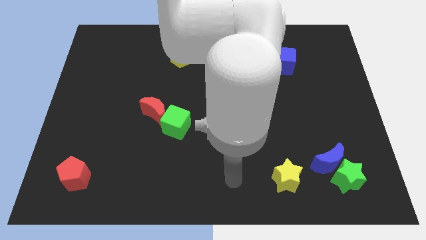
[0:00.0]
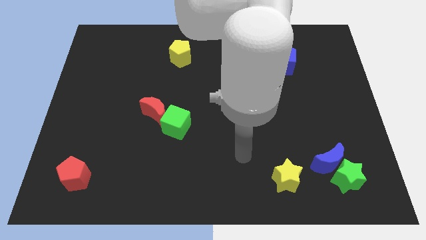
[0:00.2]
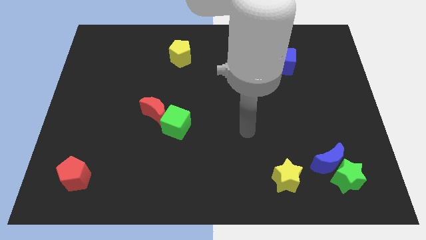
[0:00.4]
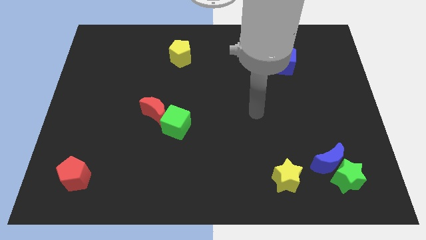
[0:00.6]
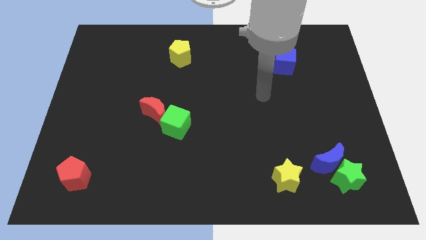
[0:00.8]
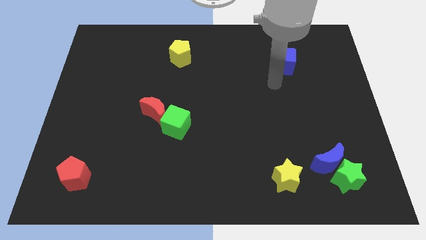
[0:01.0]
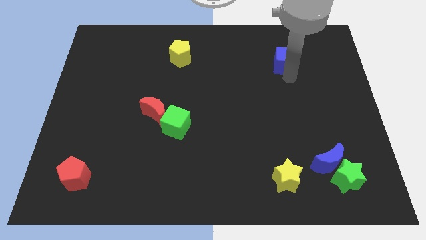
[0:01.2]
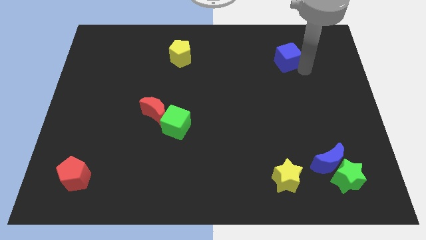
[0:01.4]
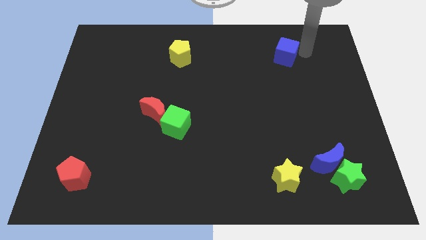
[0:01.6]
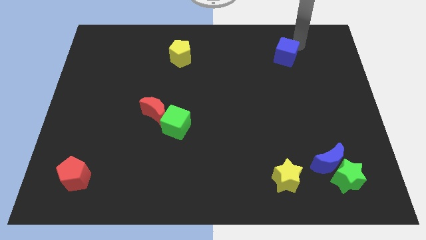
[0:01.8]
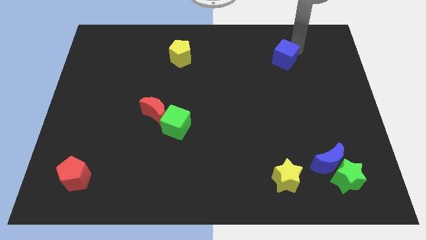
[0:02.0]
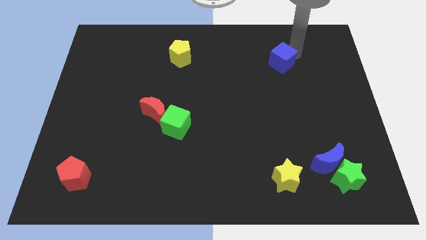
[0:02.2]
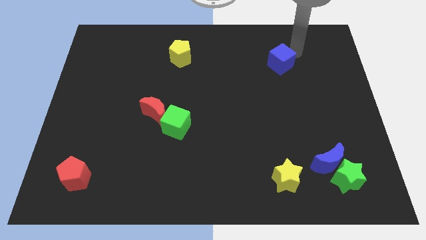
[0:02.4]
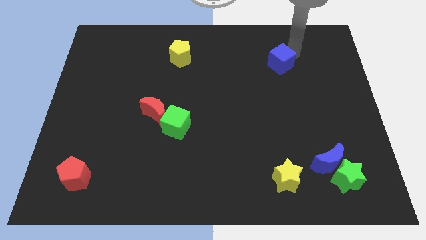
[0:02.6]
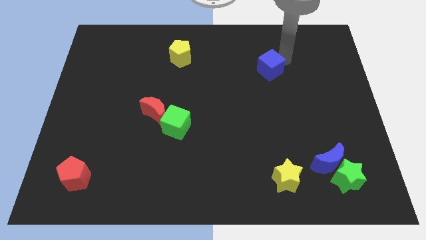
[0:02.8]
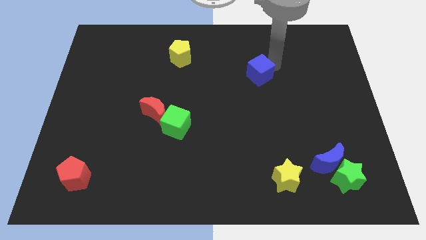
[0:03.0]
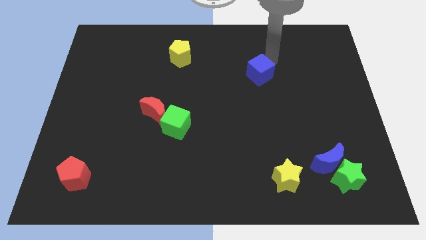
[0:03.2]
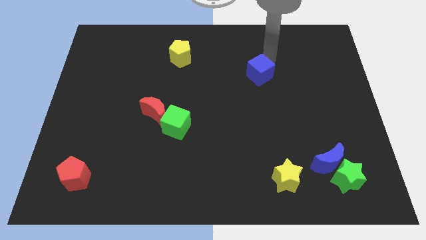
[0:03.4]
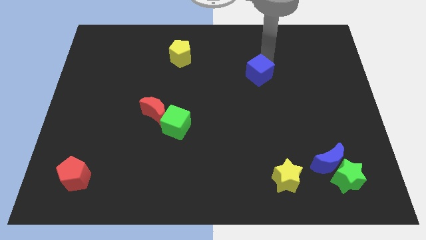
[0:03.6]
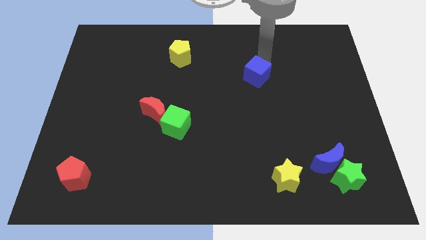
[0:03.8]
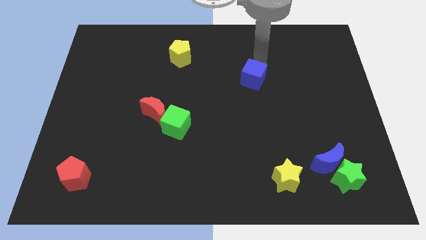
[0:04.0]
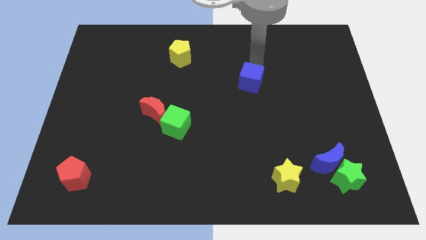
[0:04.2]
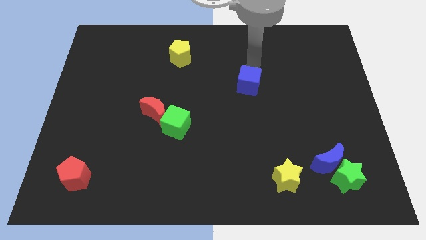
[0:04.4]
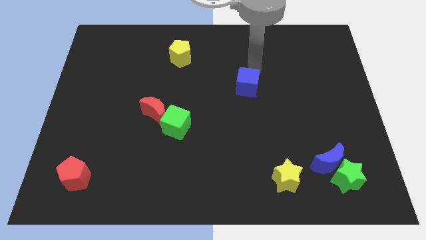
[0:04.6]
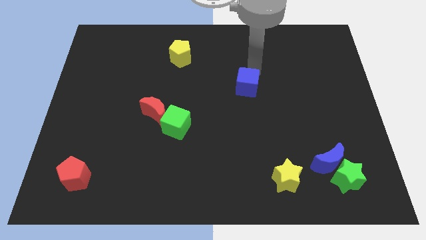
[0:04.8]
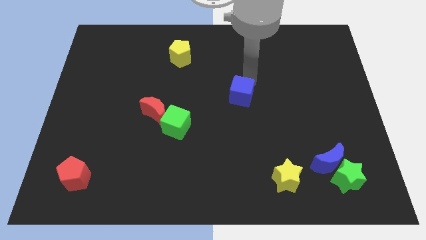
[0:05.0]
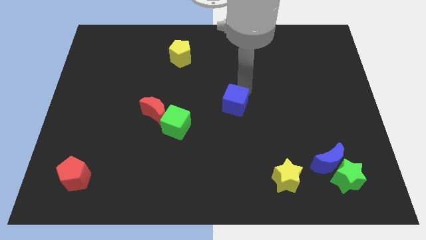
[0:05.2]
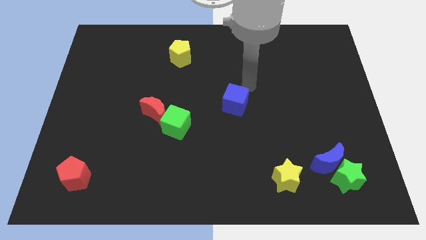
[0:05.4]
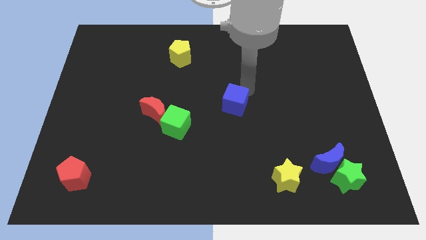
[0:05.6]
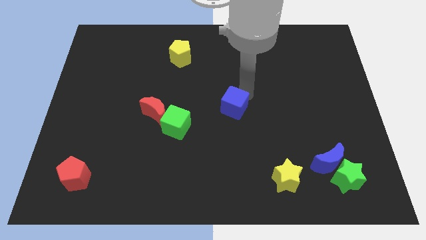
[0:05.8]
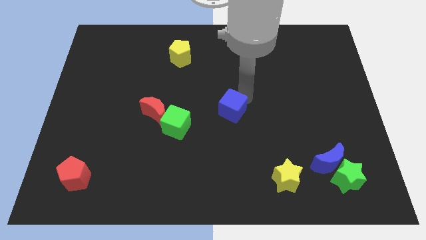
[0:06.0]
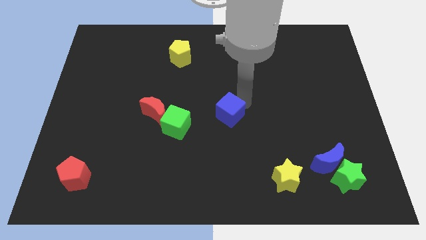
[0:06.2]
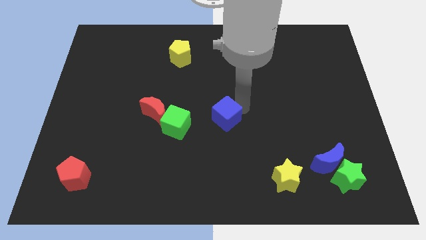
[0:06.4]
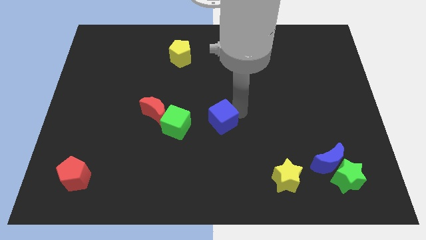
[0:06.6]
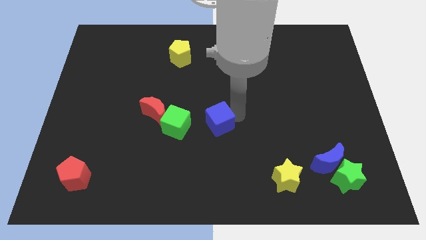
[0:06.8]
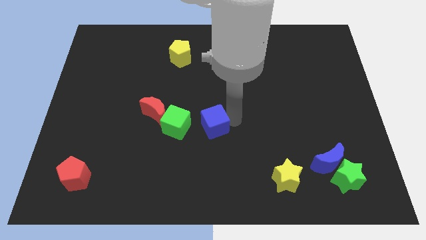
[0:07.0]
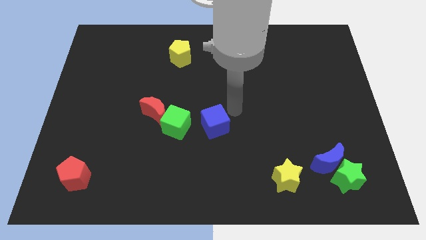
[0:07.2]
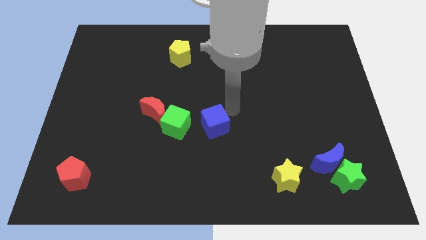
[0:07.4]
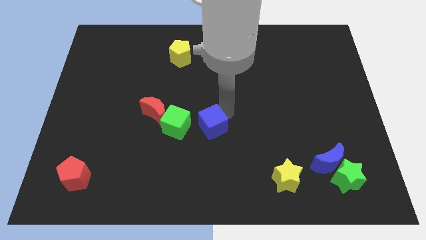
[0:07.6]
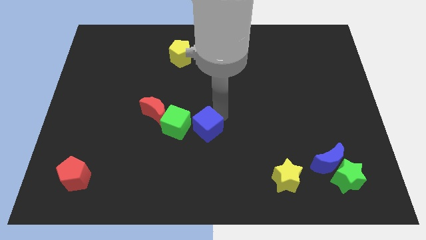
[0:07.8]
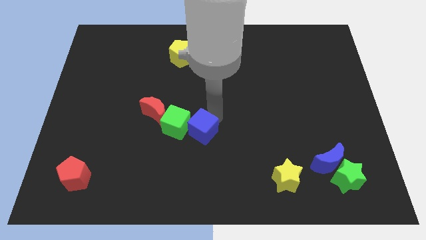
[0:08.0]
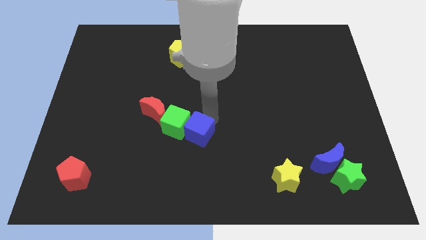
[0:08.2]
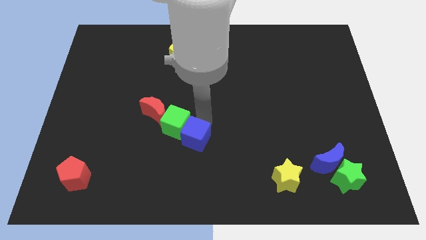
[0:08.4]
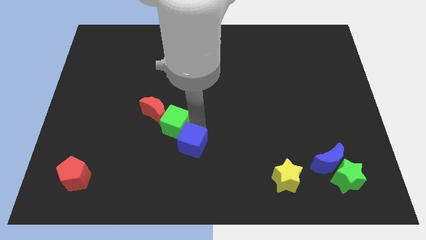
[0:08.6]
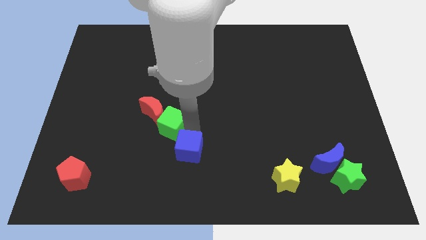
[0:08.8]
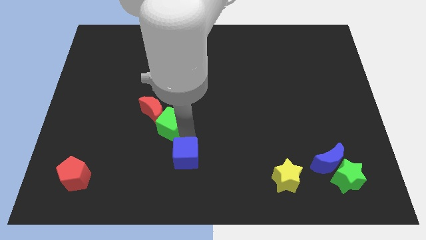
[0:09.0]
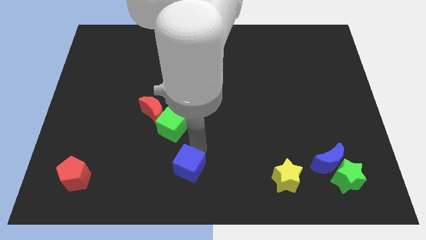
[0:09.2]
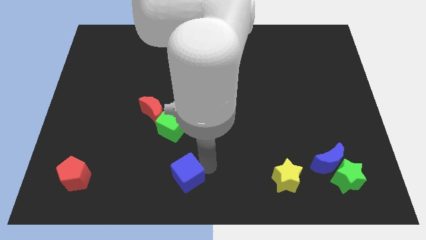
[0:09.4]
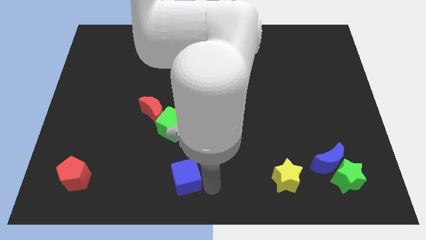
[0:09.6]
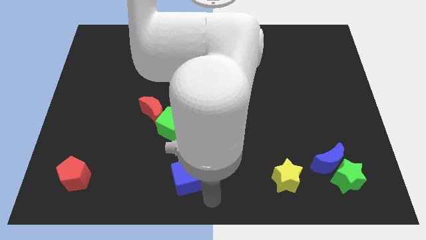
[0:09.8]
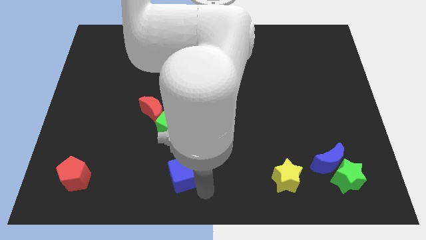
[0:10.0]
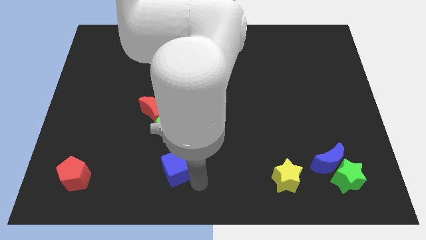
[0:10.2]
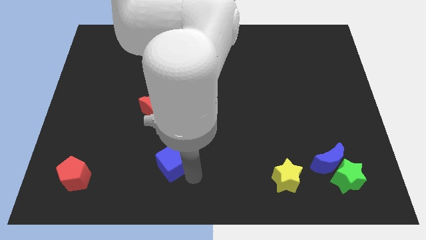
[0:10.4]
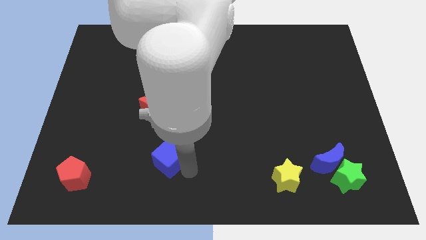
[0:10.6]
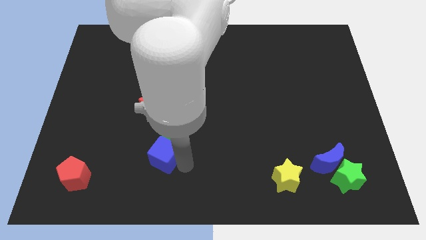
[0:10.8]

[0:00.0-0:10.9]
push the blue cube diagonally down and to the left of the green cube

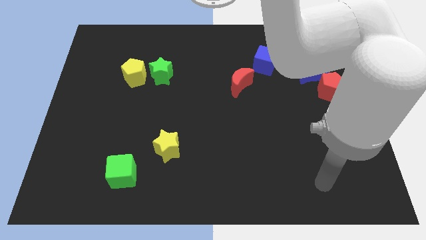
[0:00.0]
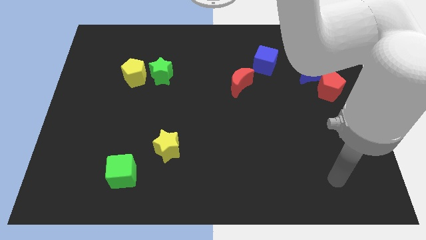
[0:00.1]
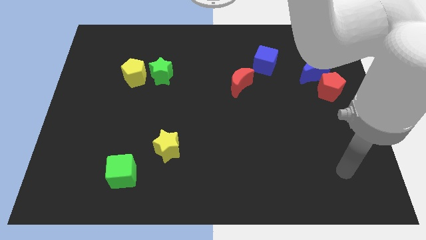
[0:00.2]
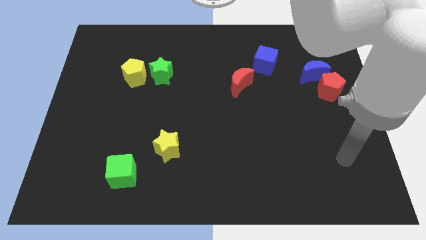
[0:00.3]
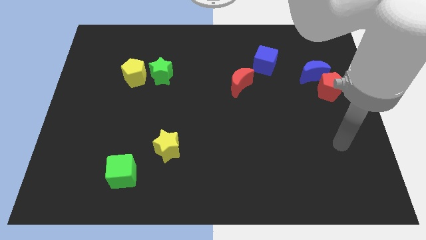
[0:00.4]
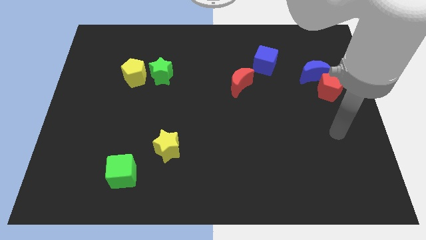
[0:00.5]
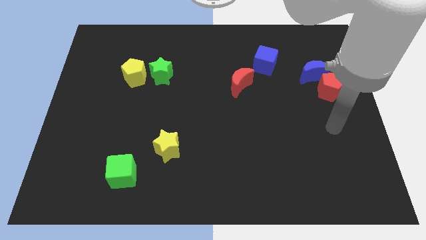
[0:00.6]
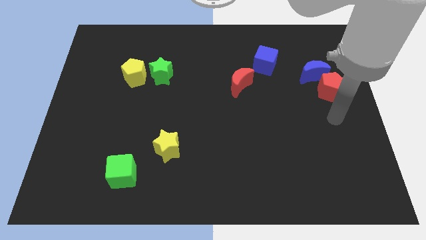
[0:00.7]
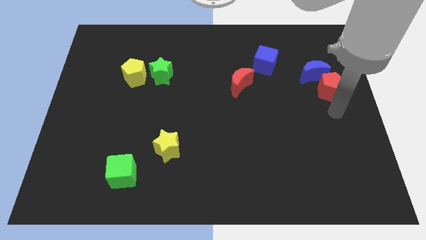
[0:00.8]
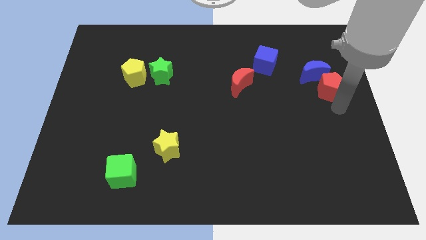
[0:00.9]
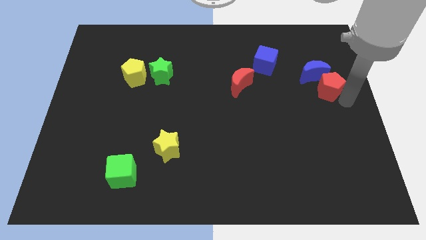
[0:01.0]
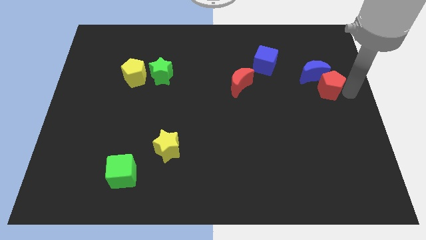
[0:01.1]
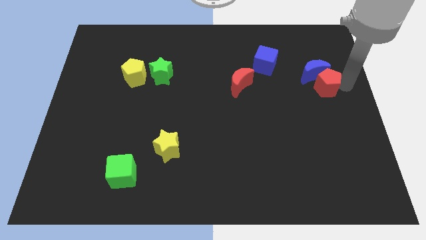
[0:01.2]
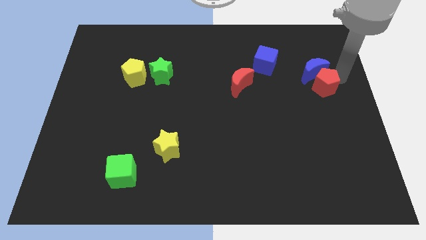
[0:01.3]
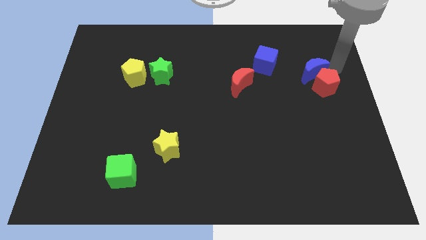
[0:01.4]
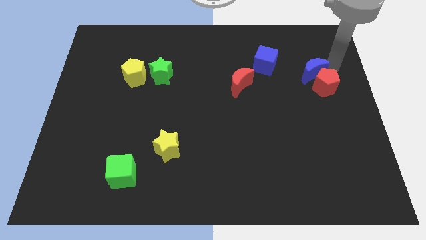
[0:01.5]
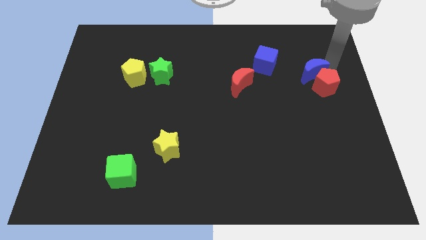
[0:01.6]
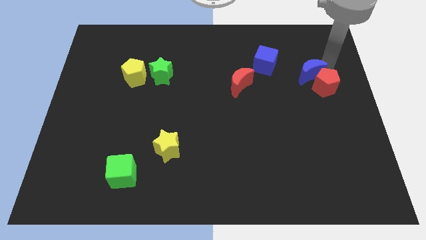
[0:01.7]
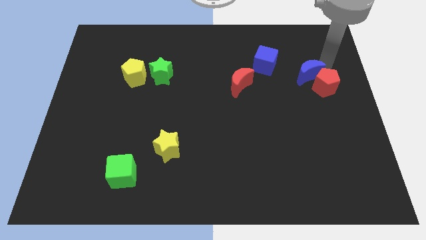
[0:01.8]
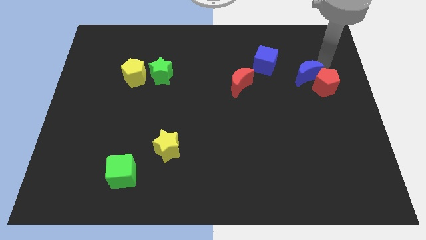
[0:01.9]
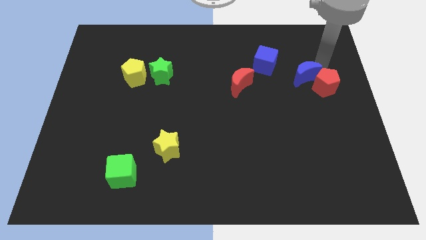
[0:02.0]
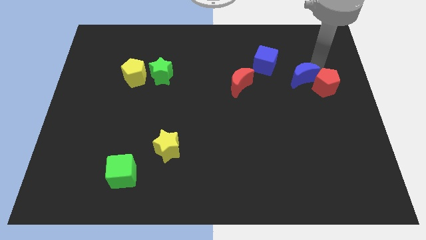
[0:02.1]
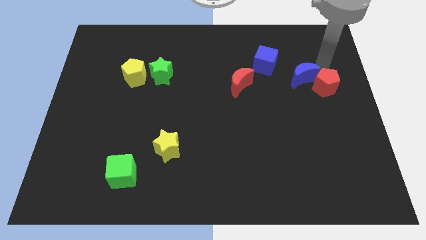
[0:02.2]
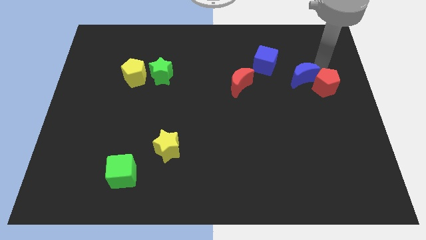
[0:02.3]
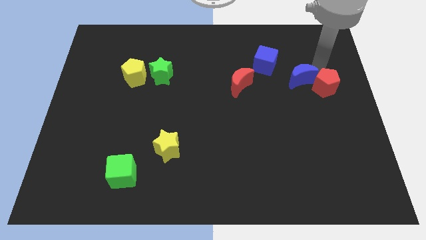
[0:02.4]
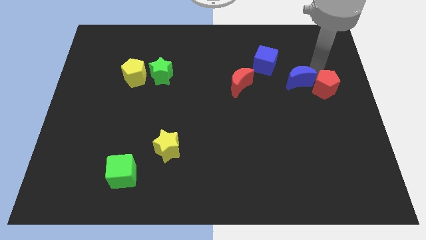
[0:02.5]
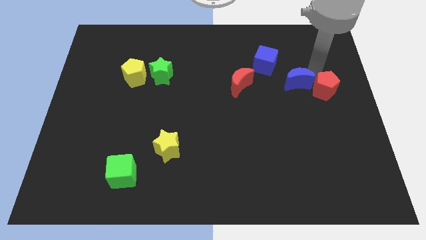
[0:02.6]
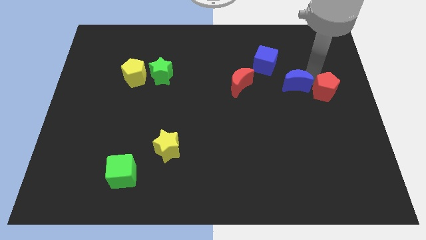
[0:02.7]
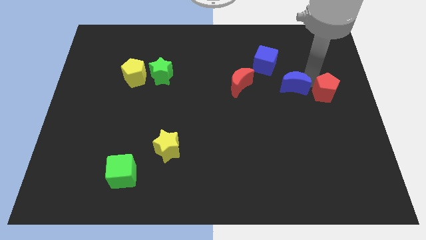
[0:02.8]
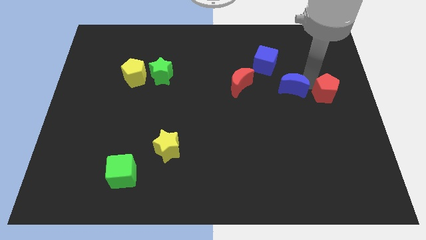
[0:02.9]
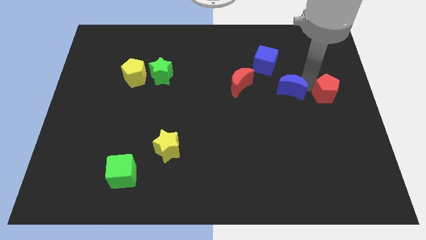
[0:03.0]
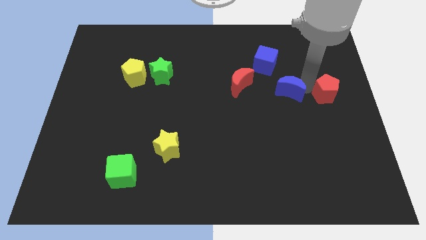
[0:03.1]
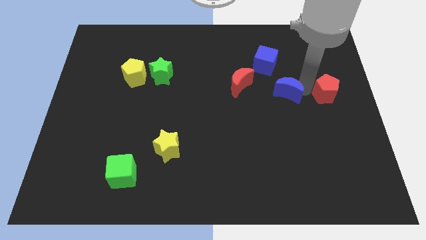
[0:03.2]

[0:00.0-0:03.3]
slide the blue moon below the blue cube
